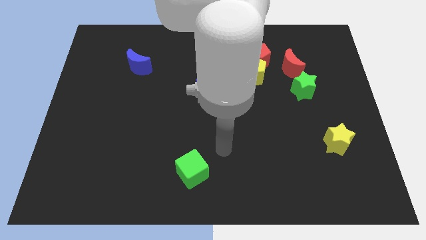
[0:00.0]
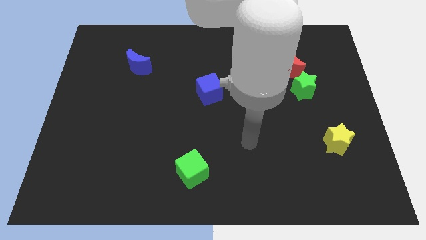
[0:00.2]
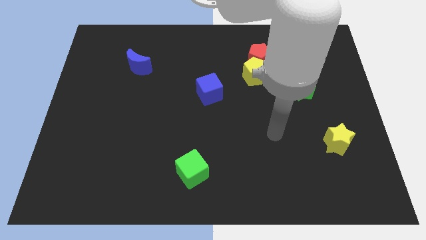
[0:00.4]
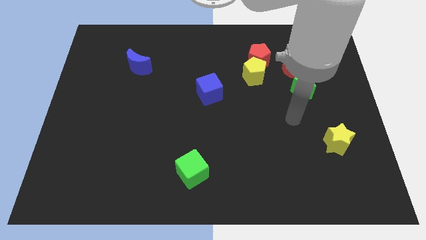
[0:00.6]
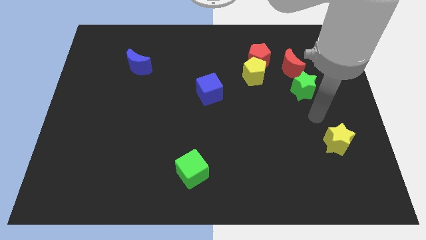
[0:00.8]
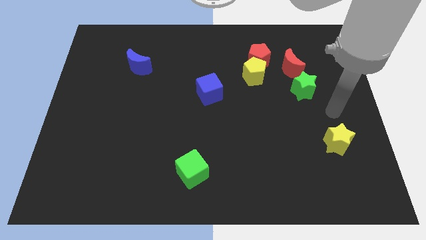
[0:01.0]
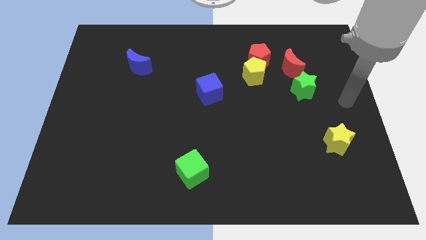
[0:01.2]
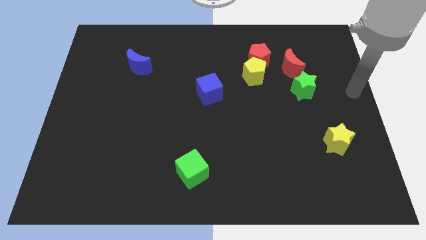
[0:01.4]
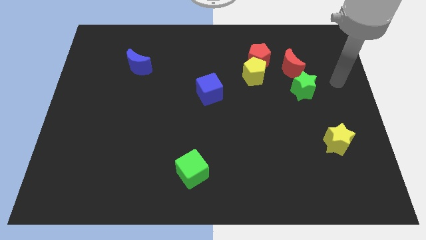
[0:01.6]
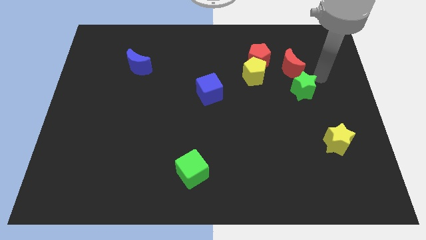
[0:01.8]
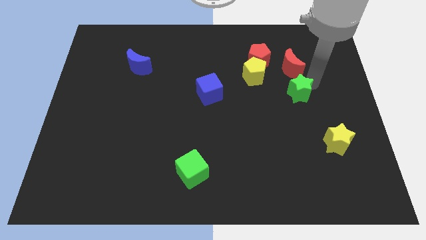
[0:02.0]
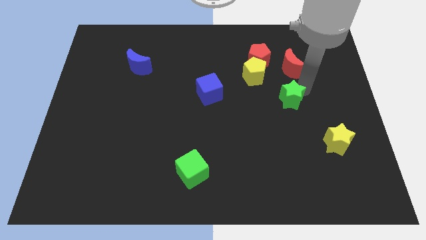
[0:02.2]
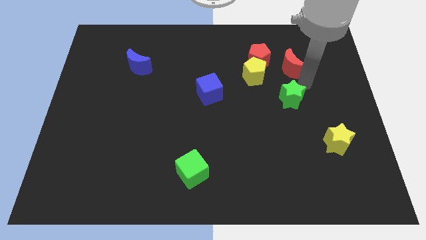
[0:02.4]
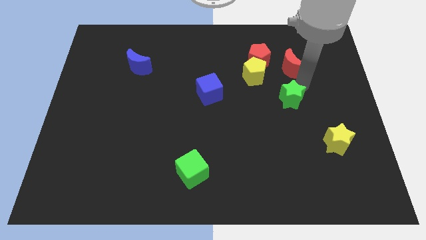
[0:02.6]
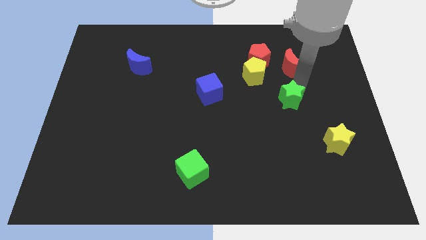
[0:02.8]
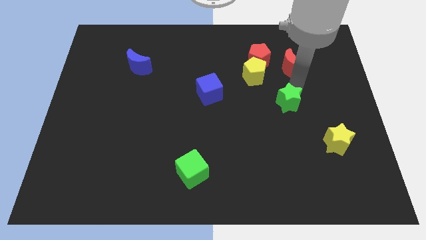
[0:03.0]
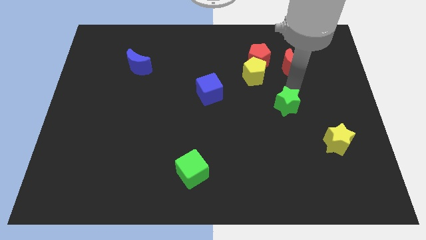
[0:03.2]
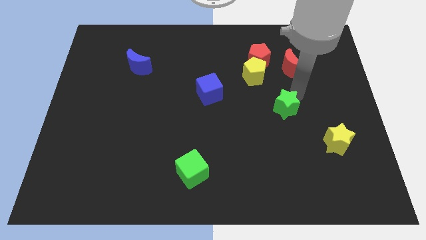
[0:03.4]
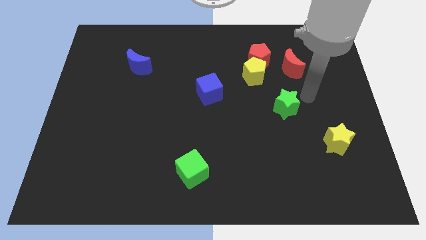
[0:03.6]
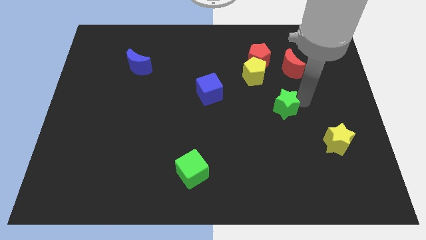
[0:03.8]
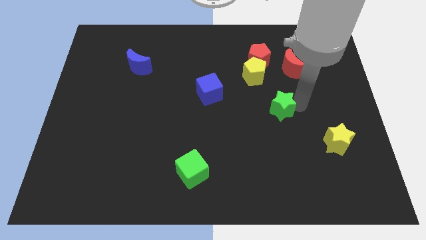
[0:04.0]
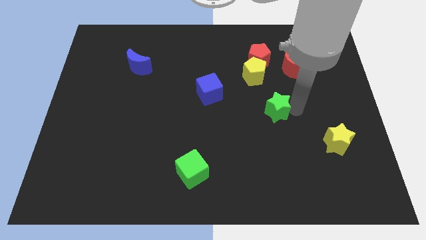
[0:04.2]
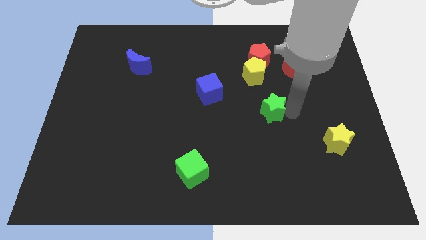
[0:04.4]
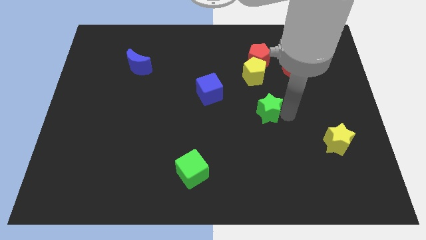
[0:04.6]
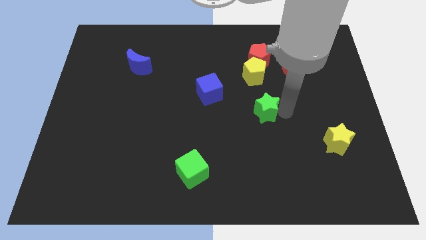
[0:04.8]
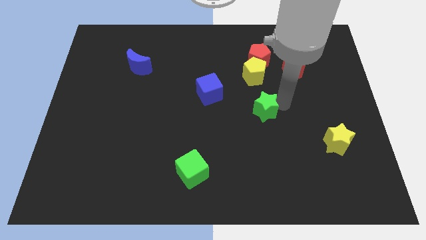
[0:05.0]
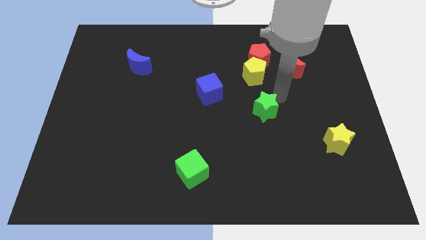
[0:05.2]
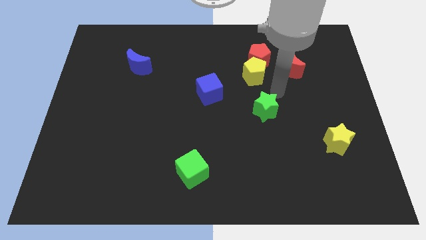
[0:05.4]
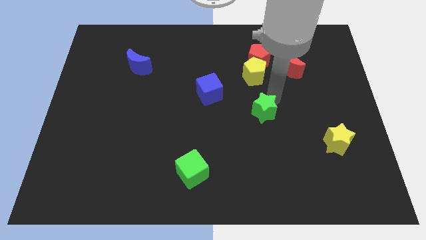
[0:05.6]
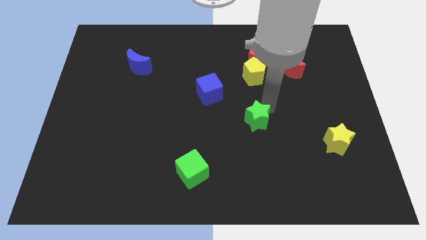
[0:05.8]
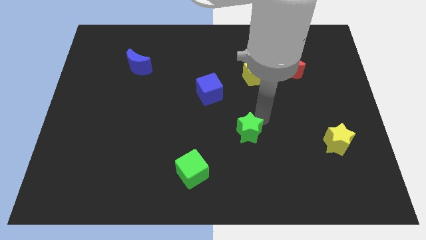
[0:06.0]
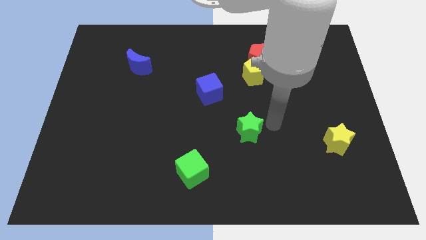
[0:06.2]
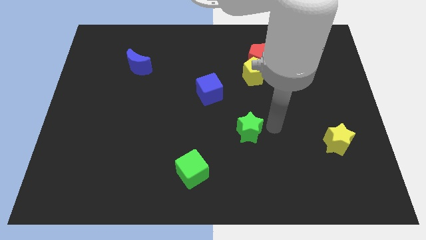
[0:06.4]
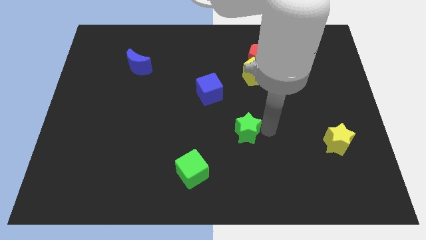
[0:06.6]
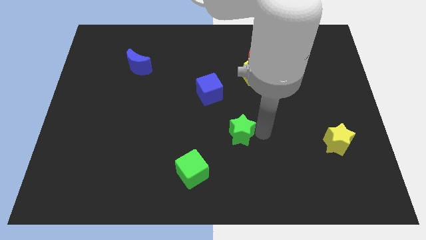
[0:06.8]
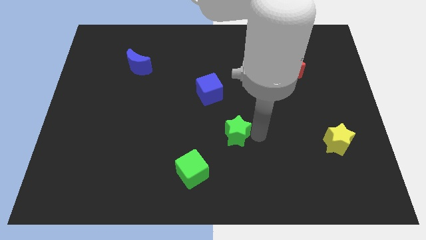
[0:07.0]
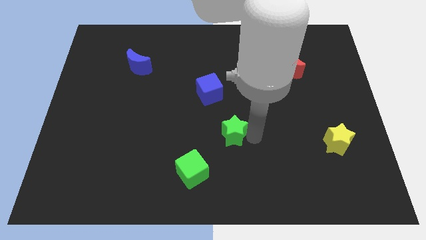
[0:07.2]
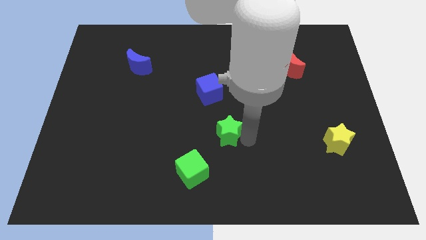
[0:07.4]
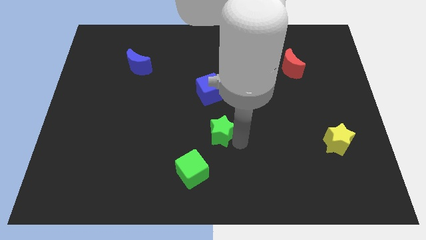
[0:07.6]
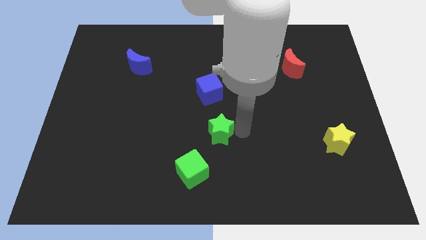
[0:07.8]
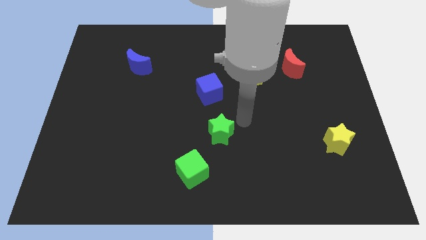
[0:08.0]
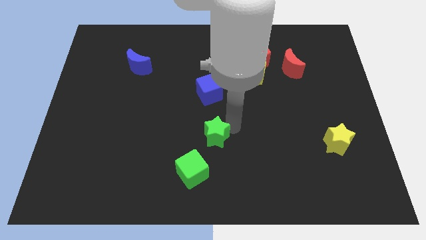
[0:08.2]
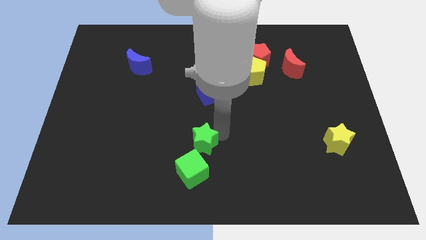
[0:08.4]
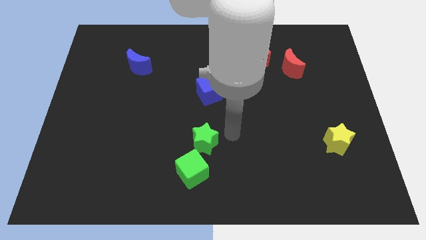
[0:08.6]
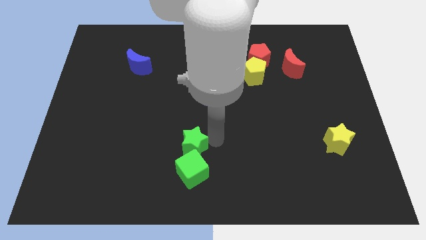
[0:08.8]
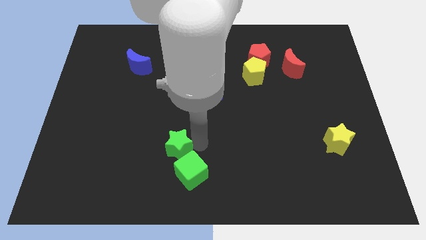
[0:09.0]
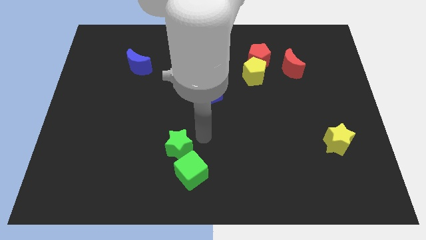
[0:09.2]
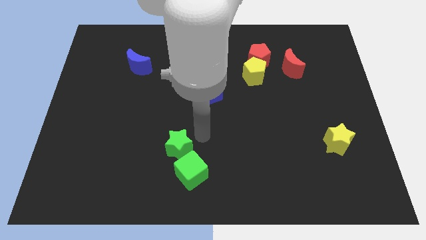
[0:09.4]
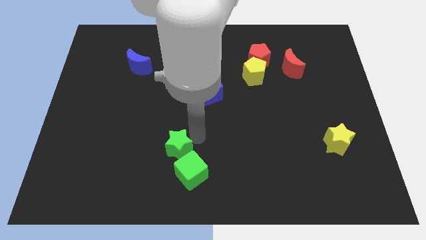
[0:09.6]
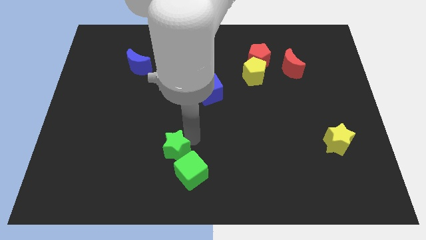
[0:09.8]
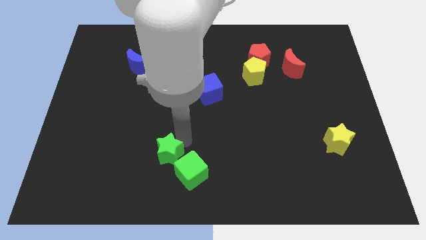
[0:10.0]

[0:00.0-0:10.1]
push the green star to the left side of the green cube

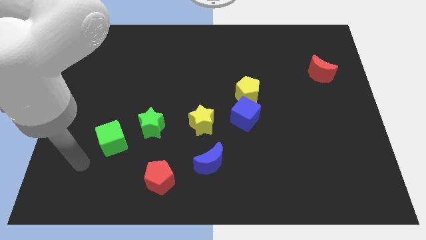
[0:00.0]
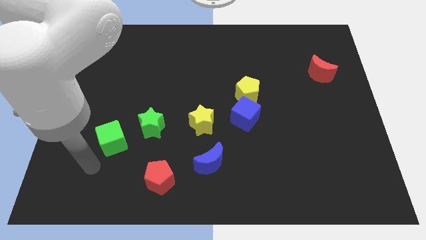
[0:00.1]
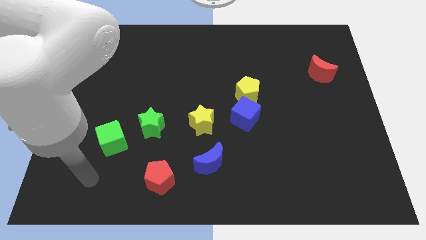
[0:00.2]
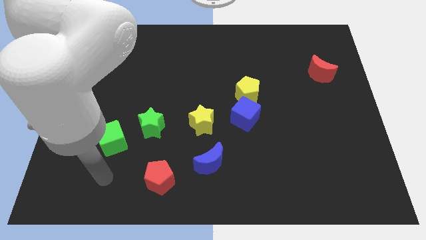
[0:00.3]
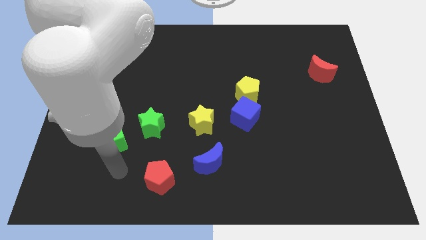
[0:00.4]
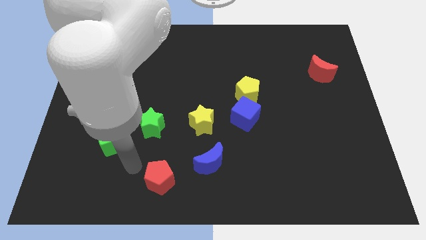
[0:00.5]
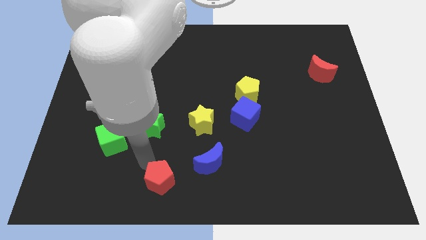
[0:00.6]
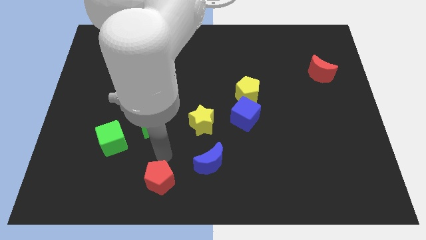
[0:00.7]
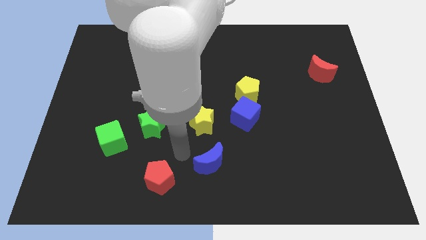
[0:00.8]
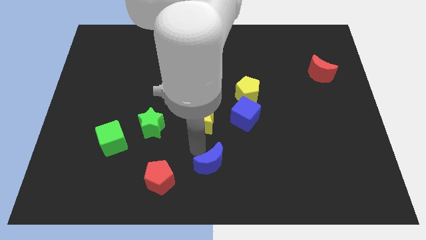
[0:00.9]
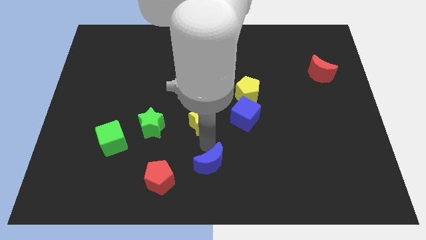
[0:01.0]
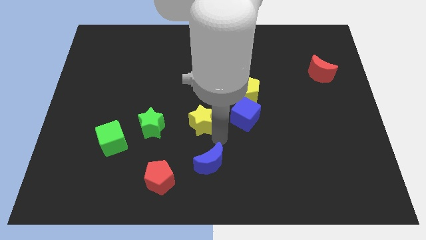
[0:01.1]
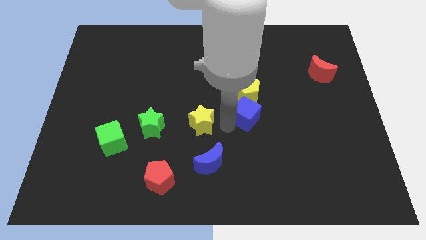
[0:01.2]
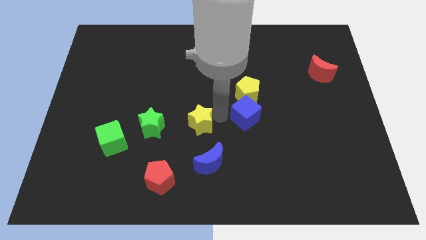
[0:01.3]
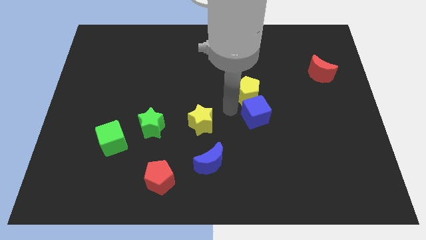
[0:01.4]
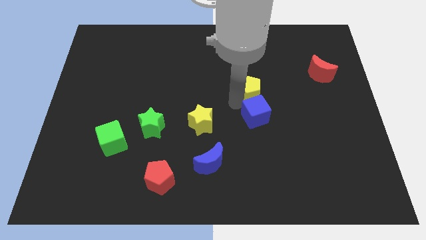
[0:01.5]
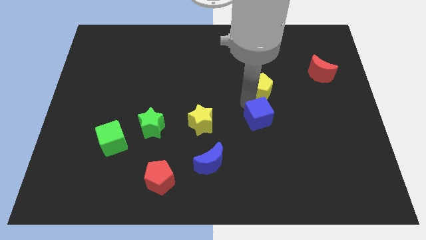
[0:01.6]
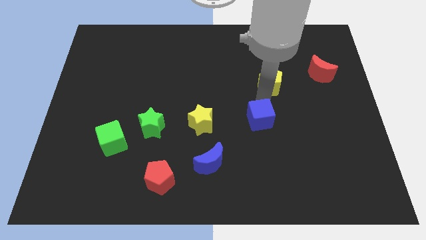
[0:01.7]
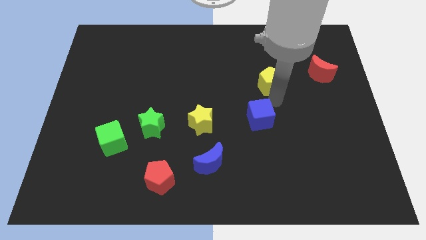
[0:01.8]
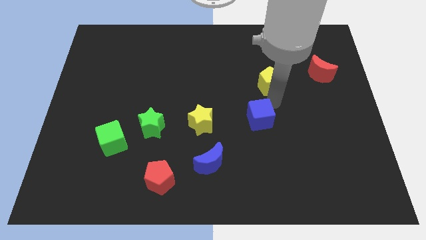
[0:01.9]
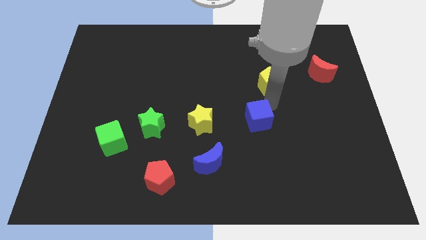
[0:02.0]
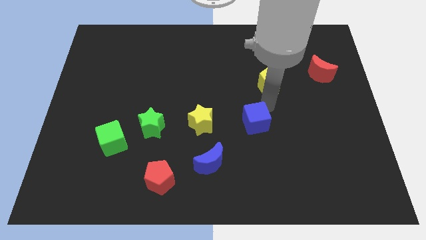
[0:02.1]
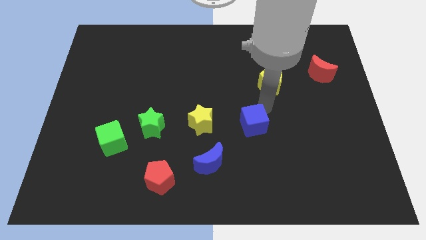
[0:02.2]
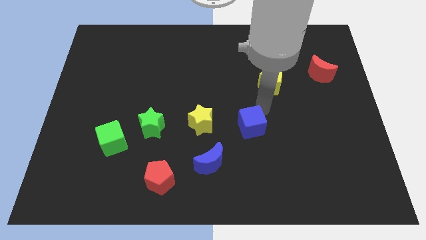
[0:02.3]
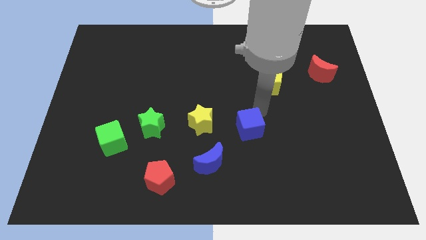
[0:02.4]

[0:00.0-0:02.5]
move the blue cube to the top right of the blue moon

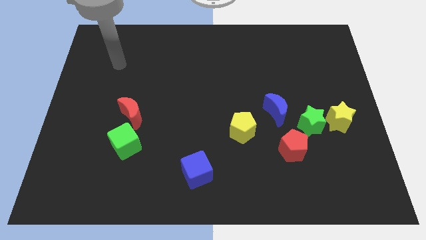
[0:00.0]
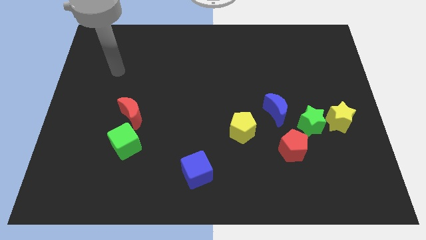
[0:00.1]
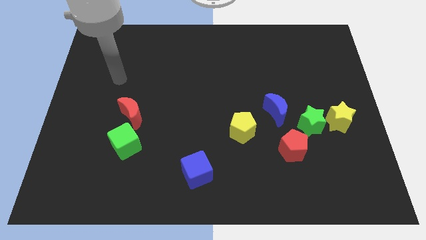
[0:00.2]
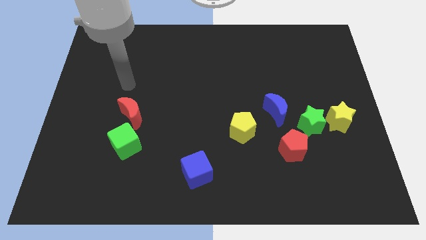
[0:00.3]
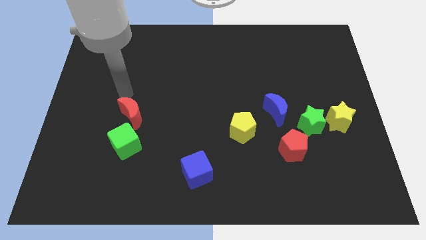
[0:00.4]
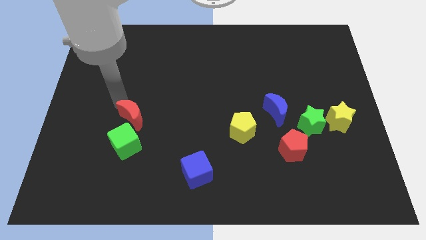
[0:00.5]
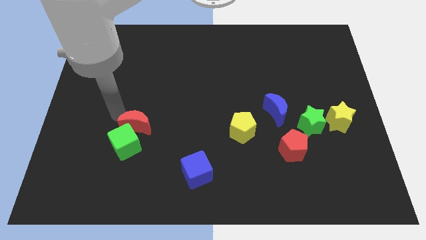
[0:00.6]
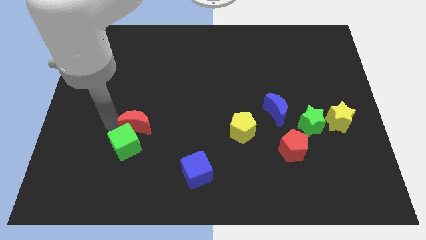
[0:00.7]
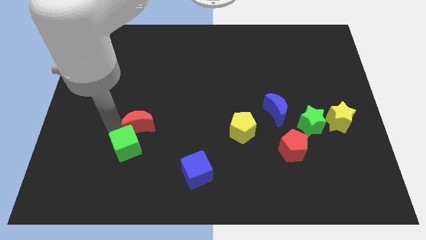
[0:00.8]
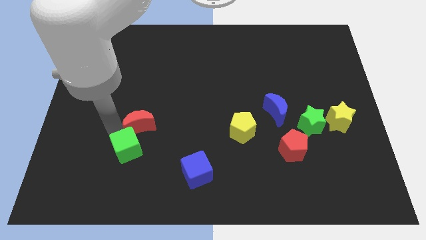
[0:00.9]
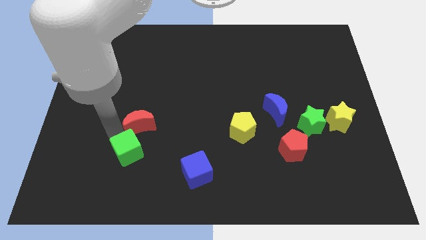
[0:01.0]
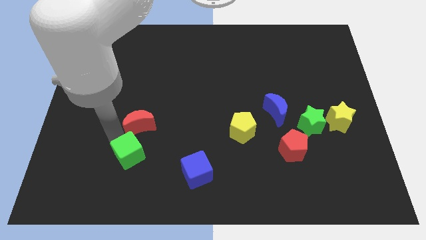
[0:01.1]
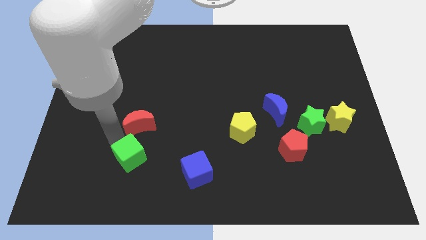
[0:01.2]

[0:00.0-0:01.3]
move the green cube left of the blue cube
